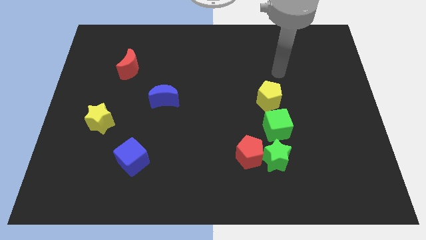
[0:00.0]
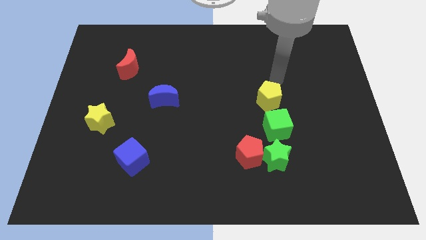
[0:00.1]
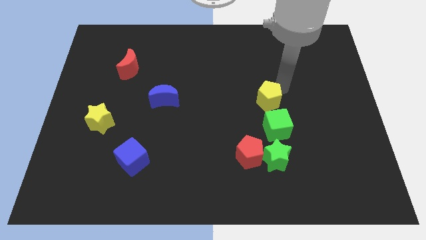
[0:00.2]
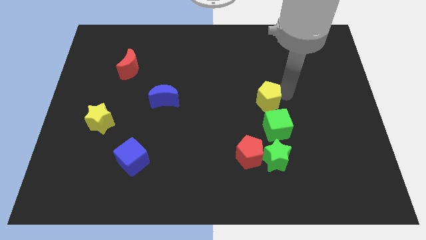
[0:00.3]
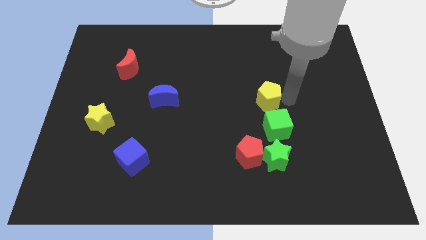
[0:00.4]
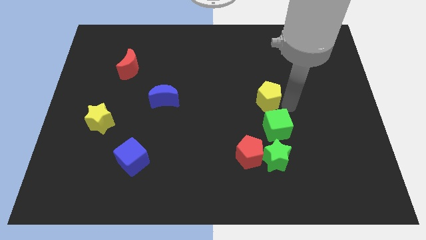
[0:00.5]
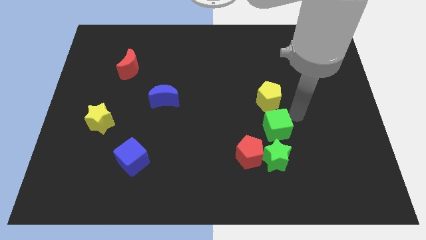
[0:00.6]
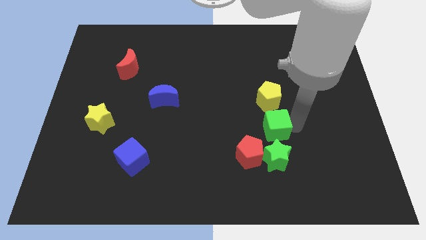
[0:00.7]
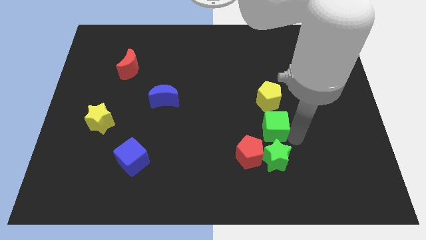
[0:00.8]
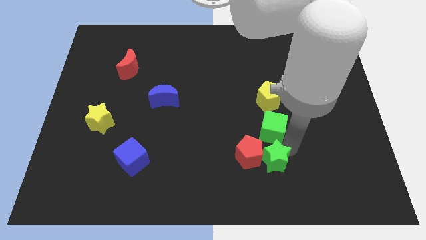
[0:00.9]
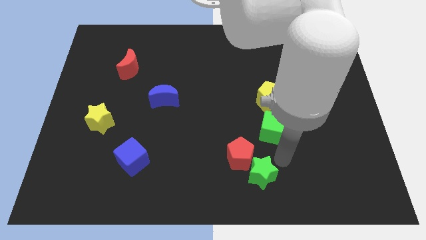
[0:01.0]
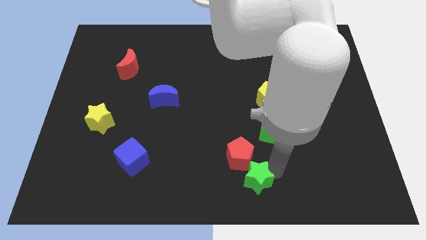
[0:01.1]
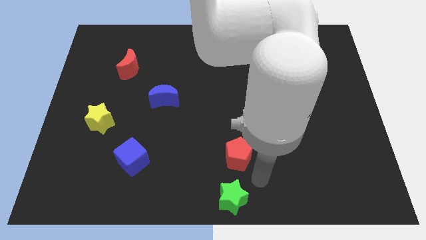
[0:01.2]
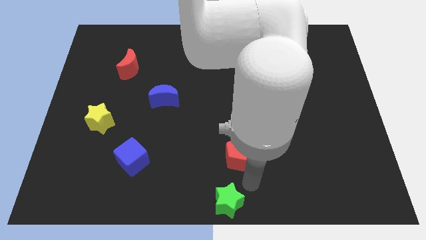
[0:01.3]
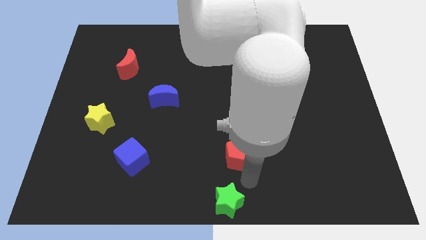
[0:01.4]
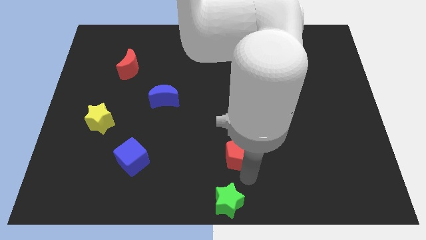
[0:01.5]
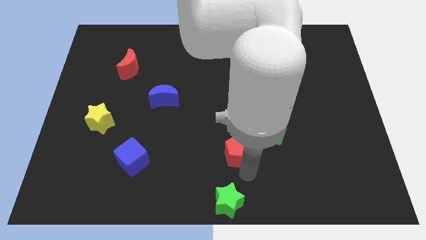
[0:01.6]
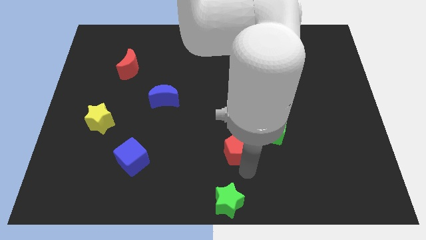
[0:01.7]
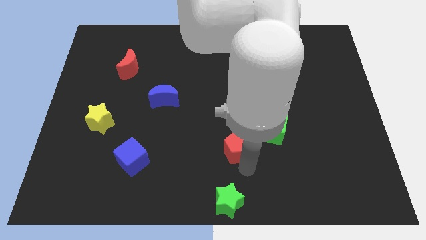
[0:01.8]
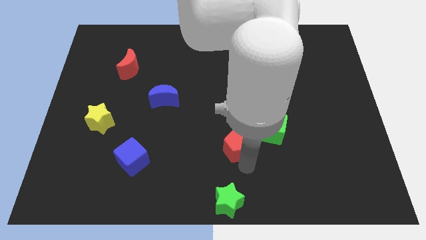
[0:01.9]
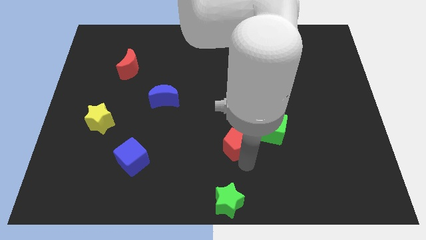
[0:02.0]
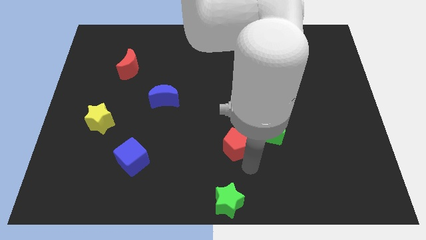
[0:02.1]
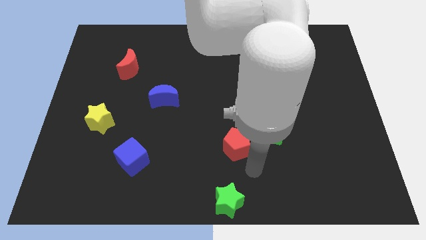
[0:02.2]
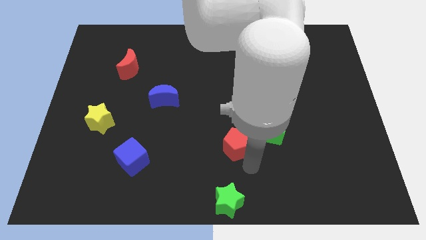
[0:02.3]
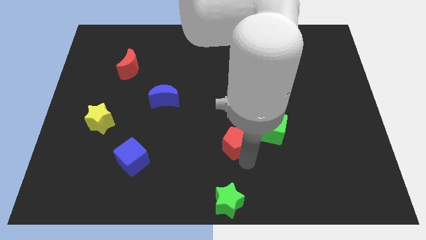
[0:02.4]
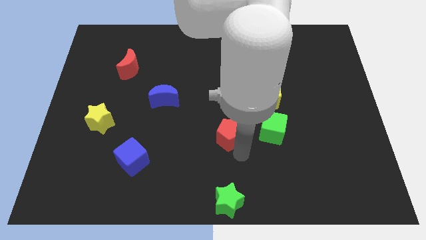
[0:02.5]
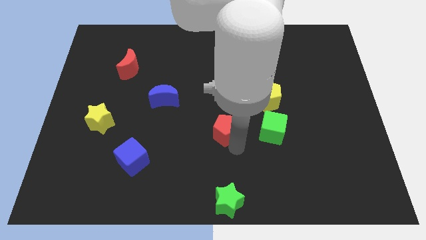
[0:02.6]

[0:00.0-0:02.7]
push the red pentagon a bit diagonally upwards and left

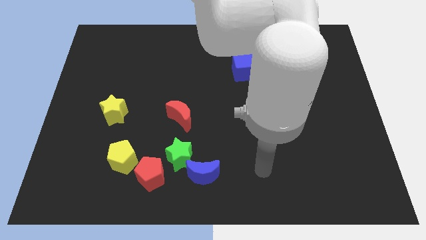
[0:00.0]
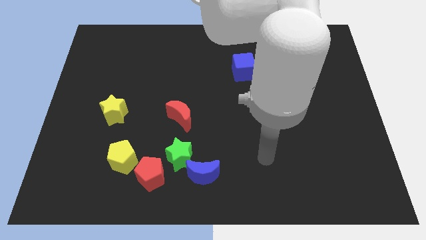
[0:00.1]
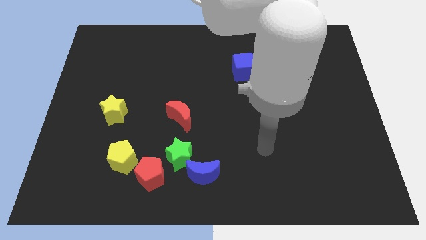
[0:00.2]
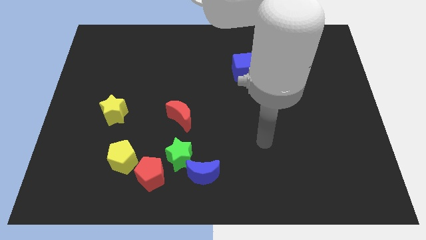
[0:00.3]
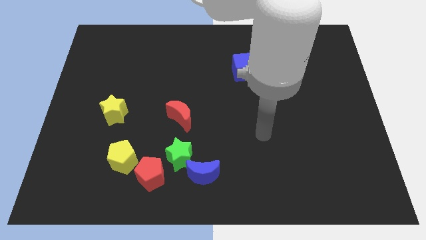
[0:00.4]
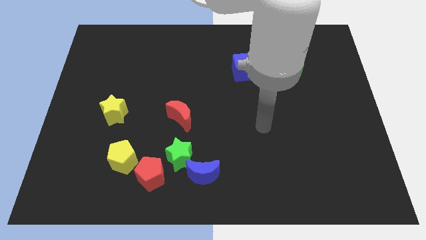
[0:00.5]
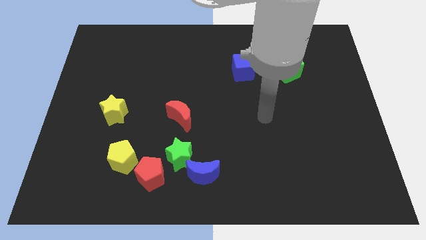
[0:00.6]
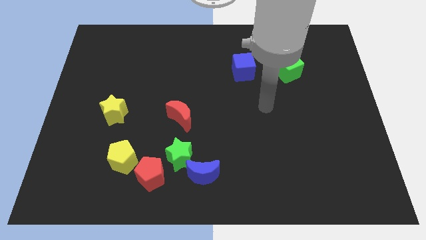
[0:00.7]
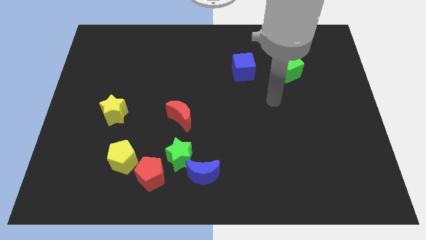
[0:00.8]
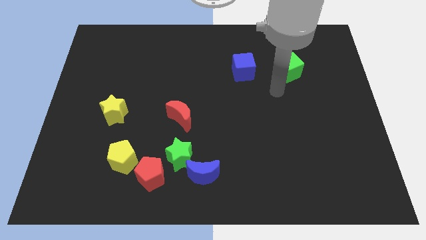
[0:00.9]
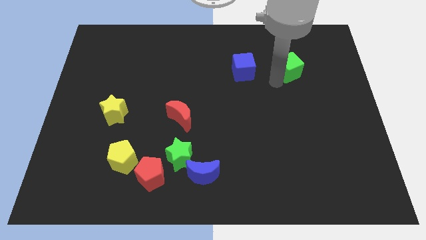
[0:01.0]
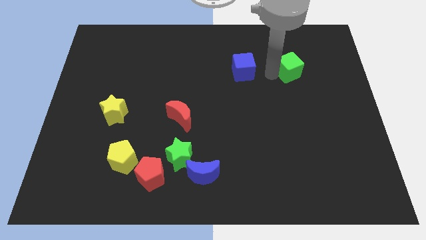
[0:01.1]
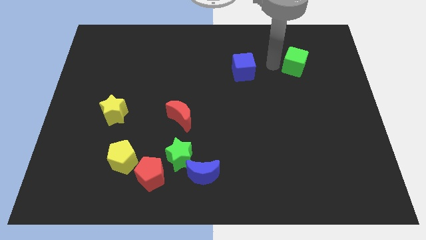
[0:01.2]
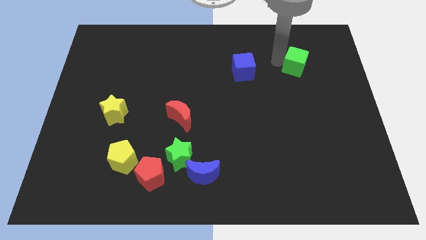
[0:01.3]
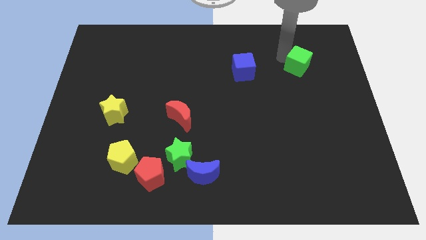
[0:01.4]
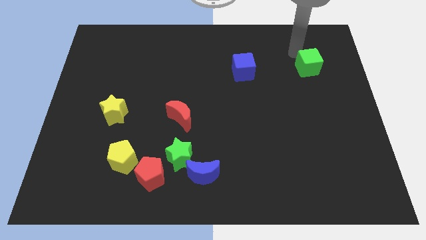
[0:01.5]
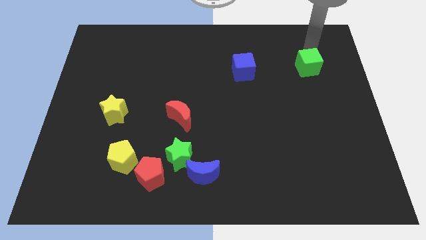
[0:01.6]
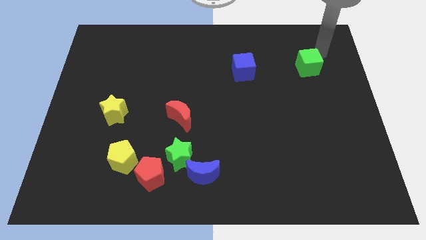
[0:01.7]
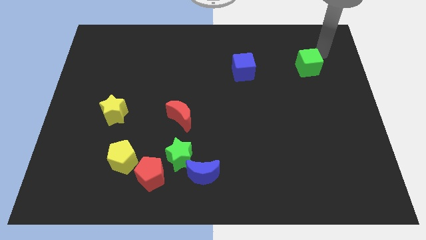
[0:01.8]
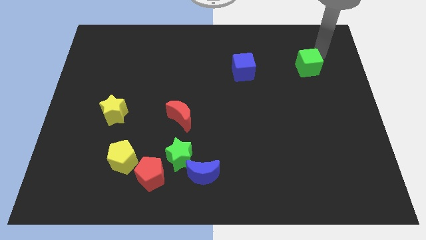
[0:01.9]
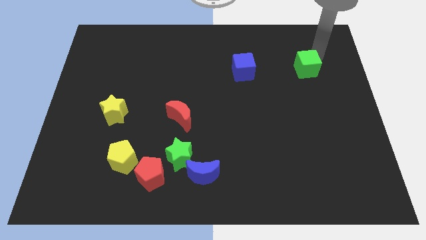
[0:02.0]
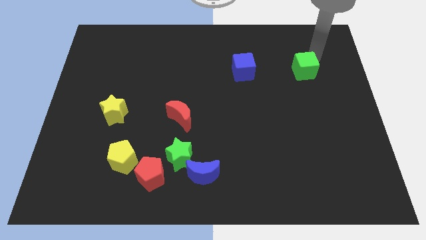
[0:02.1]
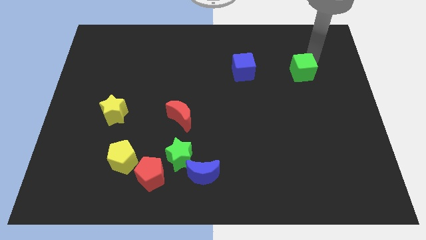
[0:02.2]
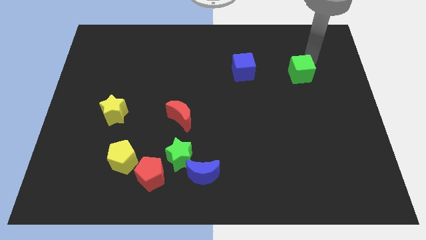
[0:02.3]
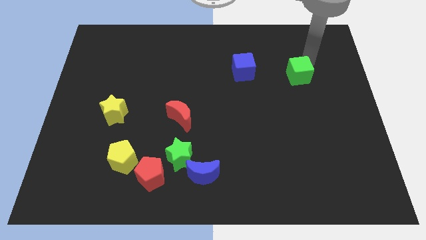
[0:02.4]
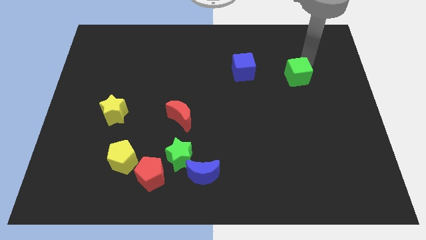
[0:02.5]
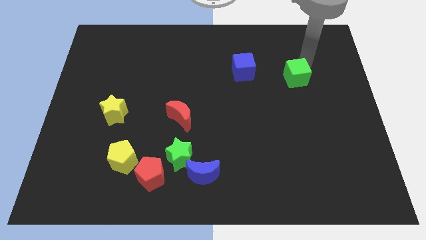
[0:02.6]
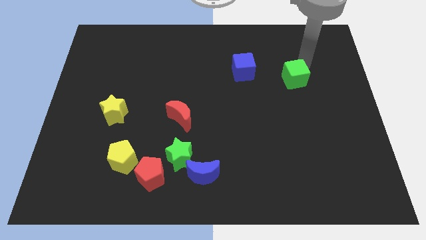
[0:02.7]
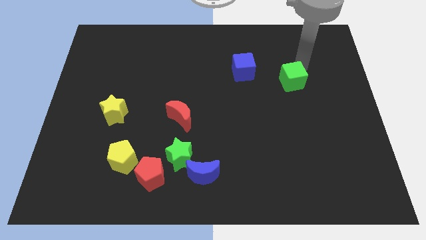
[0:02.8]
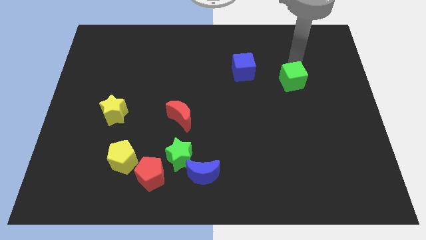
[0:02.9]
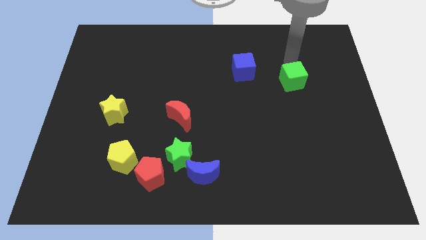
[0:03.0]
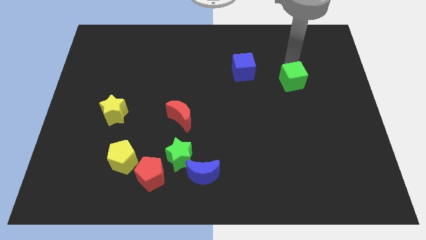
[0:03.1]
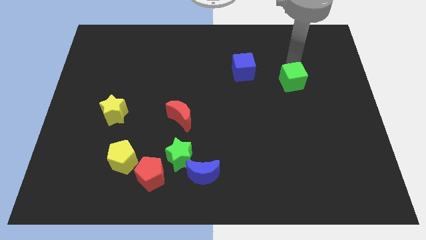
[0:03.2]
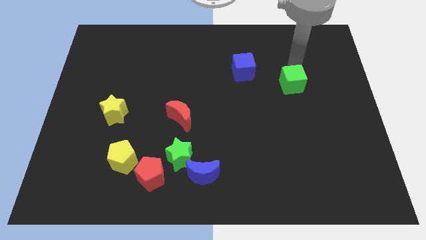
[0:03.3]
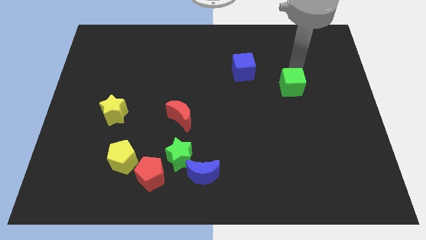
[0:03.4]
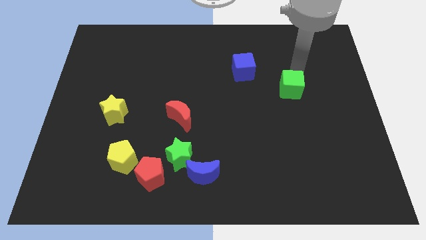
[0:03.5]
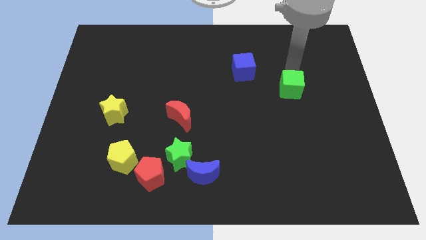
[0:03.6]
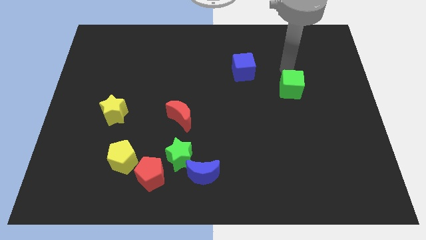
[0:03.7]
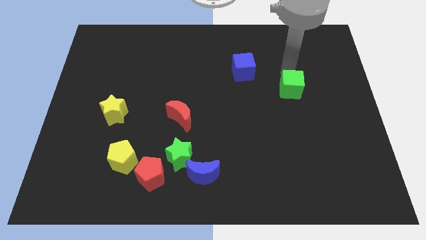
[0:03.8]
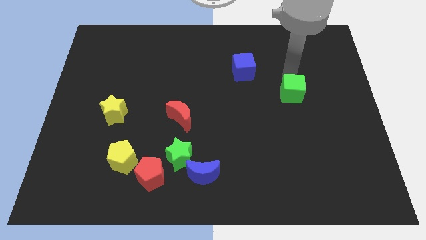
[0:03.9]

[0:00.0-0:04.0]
slide the green cube downwards a little

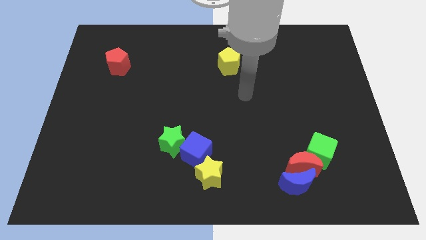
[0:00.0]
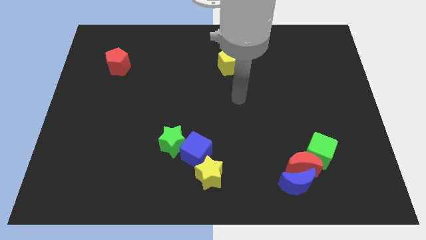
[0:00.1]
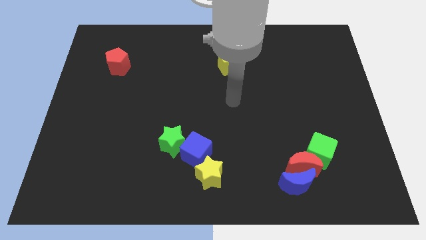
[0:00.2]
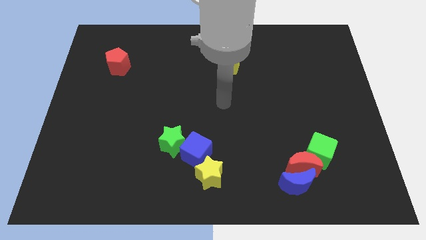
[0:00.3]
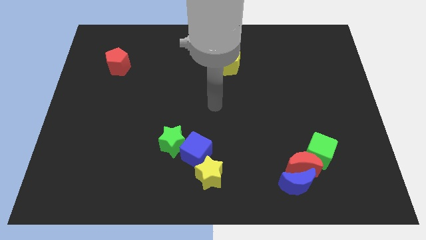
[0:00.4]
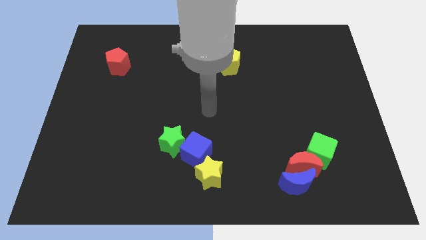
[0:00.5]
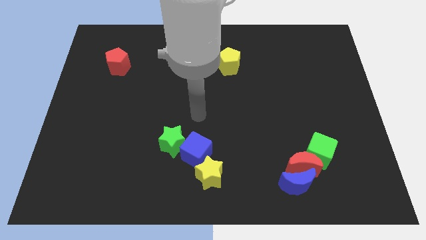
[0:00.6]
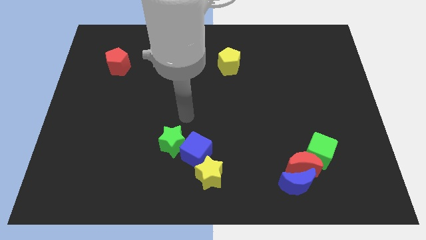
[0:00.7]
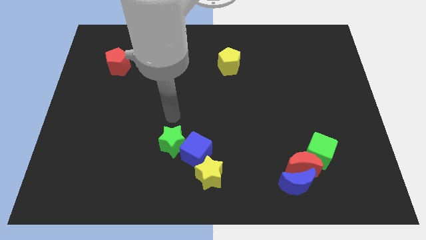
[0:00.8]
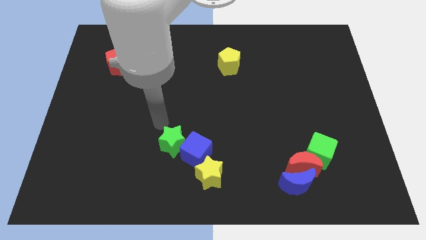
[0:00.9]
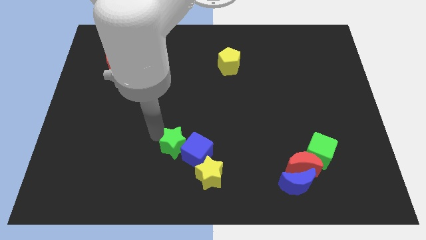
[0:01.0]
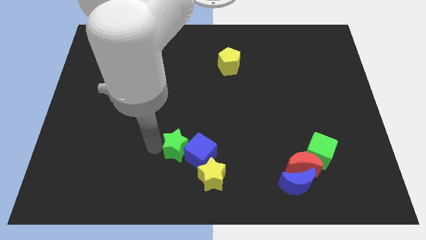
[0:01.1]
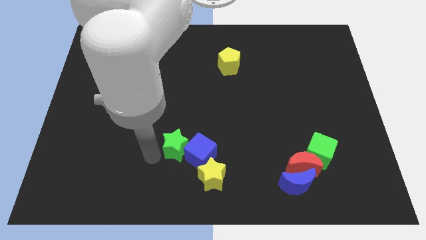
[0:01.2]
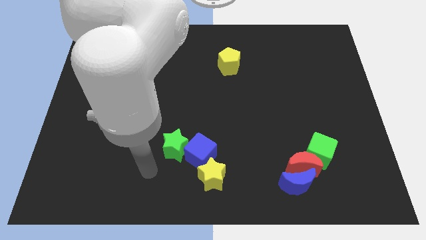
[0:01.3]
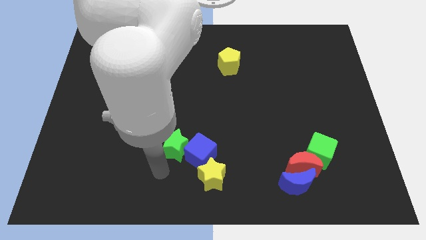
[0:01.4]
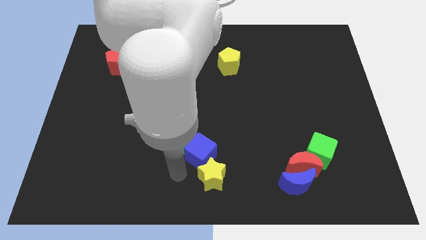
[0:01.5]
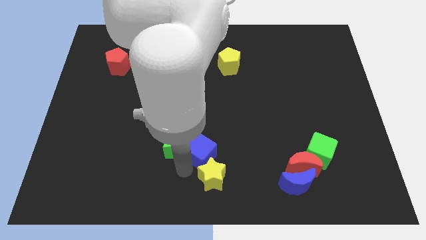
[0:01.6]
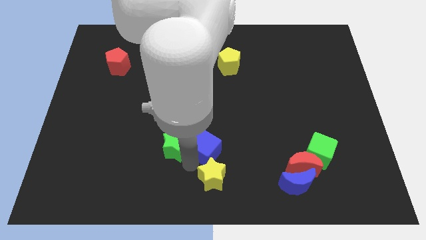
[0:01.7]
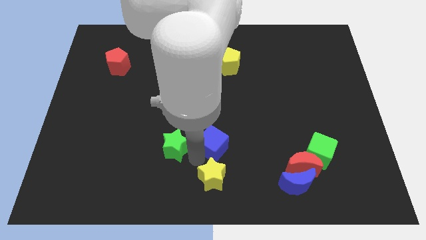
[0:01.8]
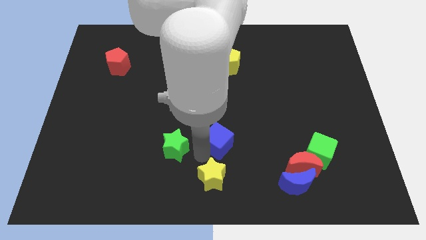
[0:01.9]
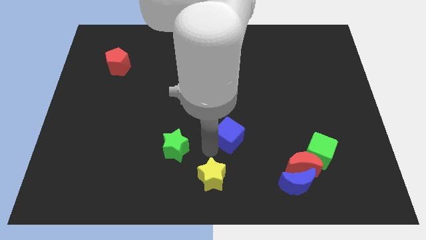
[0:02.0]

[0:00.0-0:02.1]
slide the blue cube up and to the right a little
